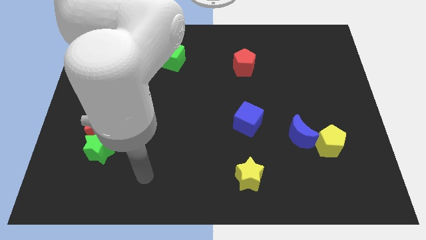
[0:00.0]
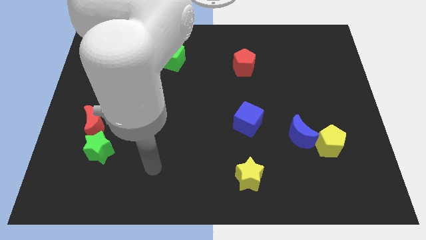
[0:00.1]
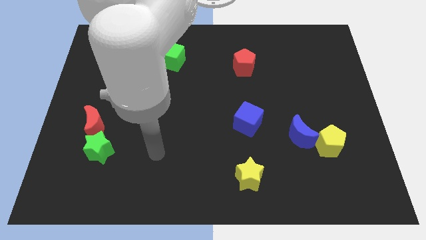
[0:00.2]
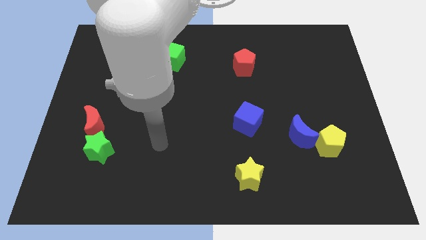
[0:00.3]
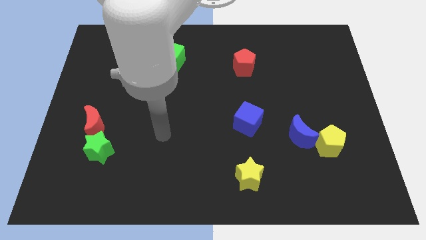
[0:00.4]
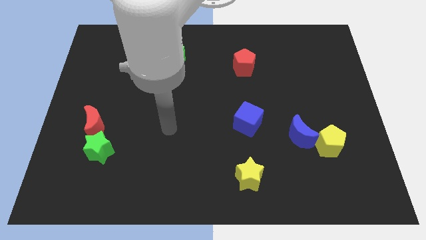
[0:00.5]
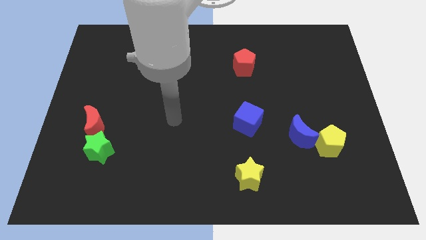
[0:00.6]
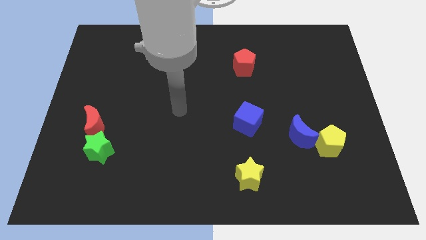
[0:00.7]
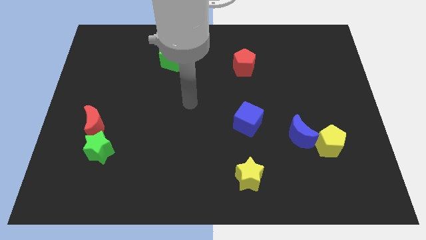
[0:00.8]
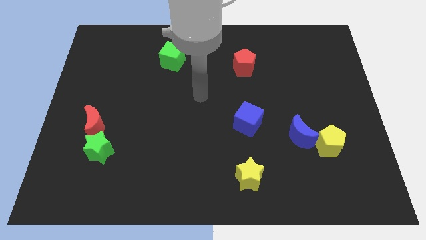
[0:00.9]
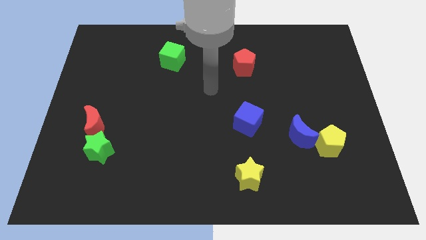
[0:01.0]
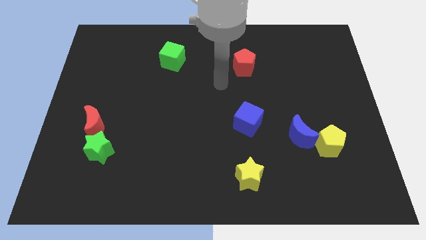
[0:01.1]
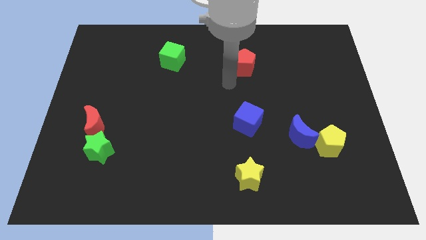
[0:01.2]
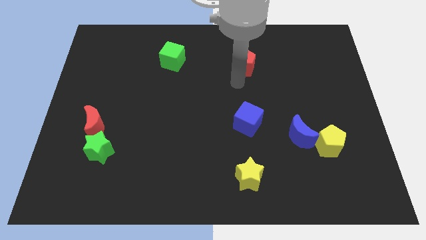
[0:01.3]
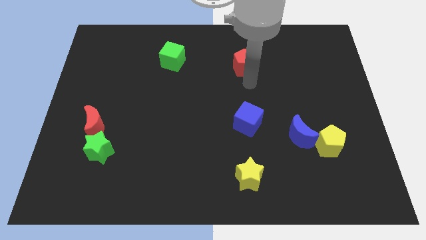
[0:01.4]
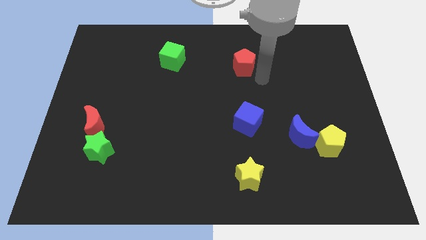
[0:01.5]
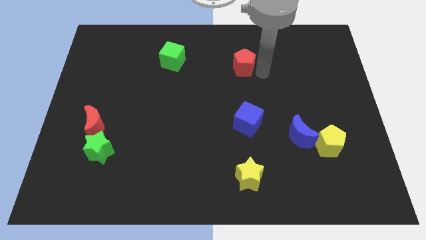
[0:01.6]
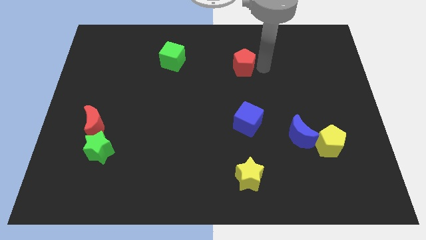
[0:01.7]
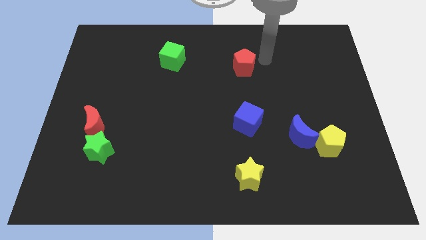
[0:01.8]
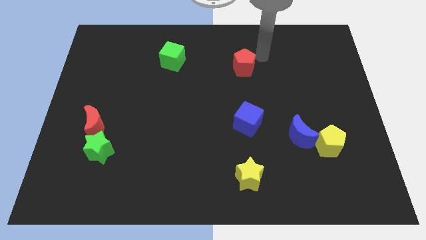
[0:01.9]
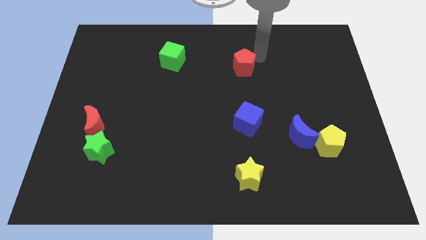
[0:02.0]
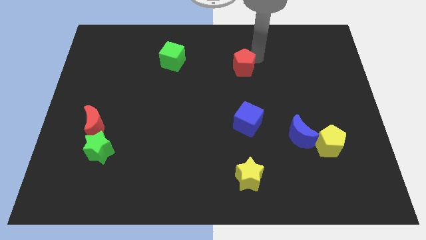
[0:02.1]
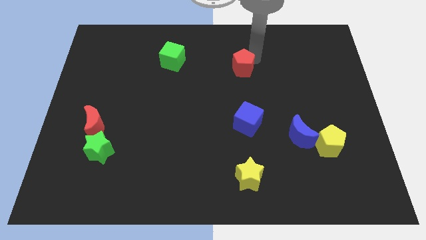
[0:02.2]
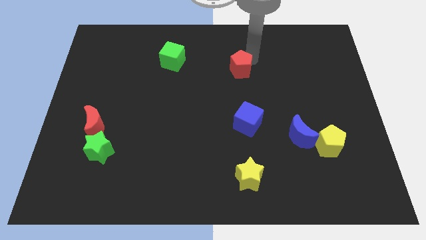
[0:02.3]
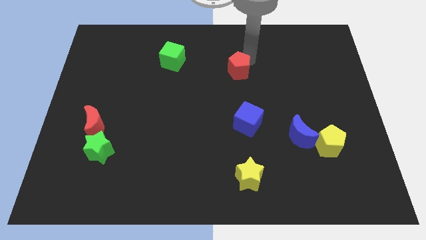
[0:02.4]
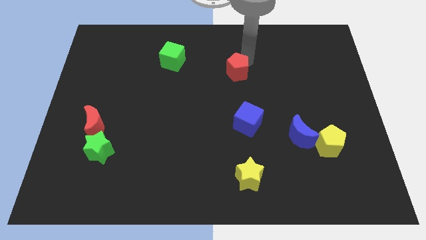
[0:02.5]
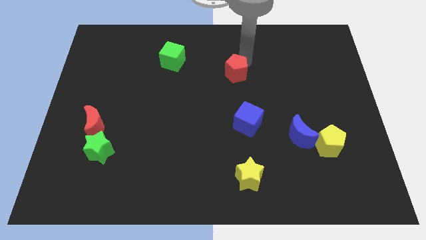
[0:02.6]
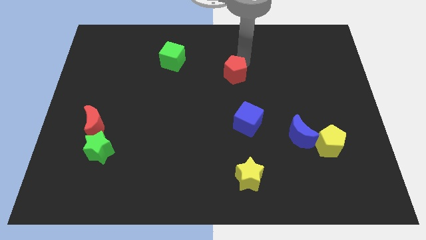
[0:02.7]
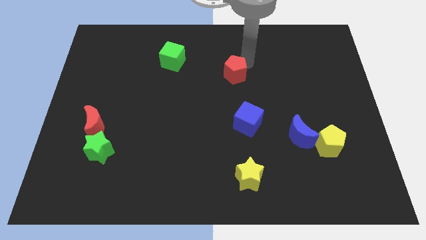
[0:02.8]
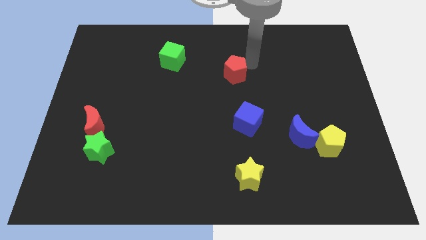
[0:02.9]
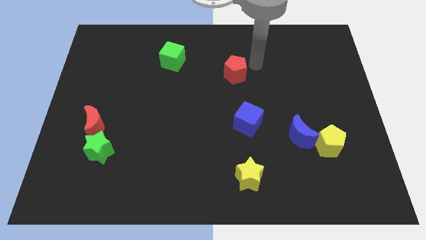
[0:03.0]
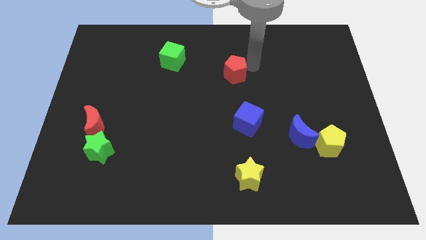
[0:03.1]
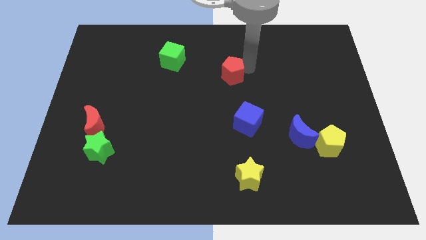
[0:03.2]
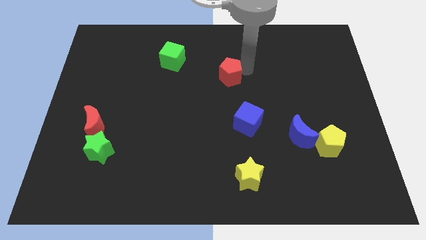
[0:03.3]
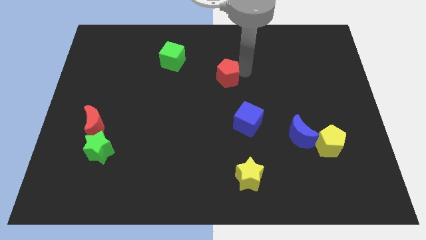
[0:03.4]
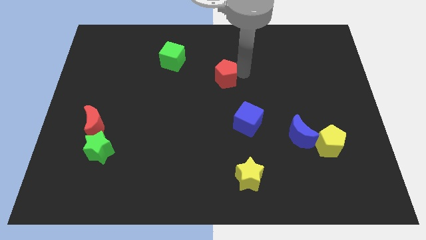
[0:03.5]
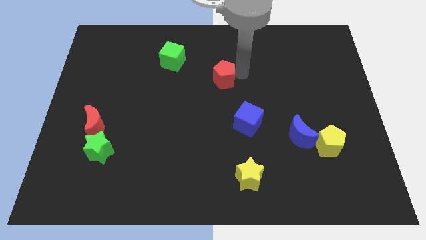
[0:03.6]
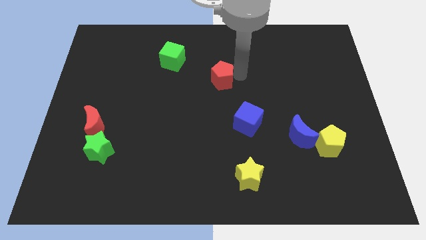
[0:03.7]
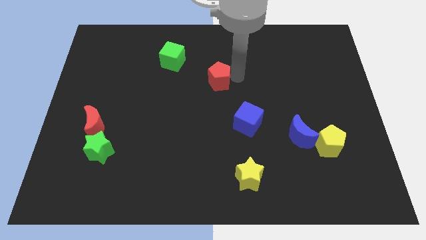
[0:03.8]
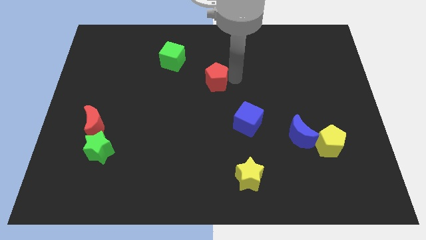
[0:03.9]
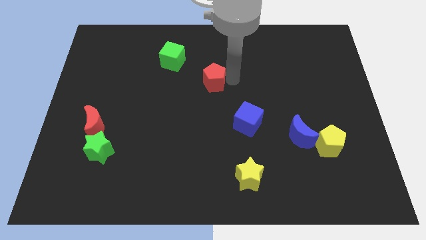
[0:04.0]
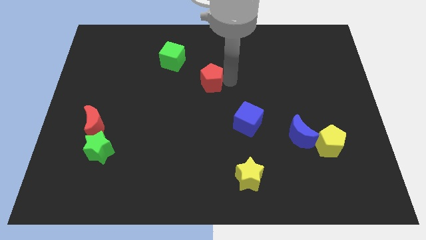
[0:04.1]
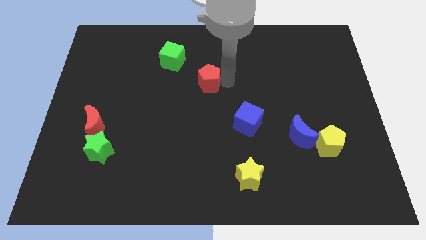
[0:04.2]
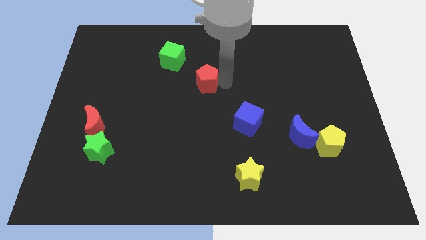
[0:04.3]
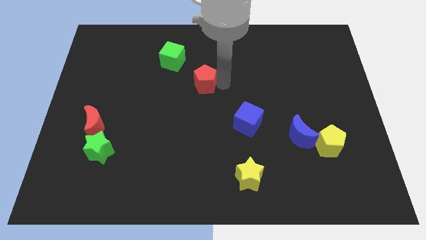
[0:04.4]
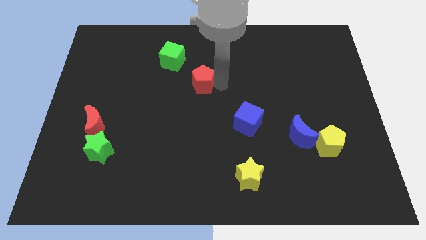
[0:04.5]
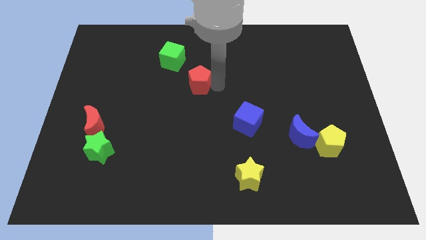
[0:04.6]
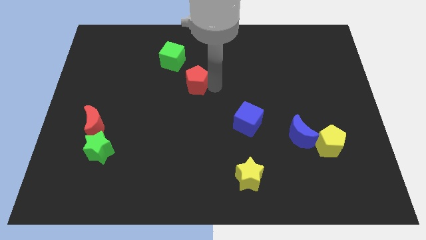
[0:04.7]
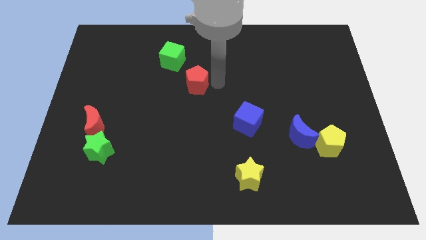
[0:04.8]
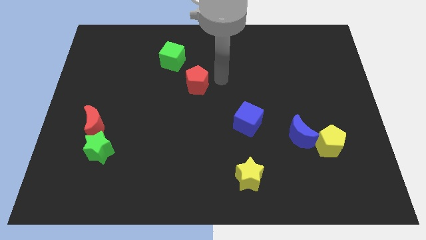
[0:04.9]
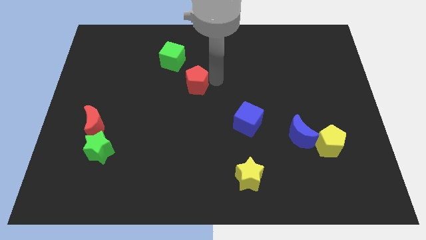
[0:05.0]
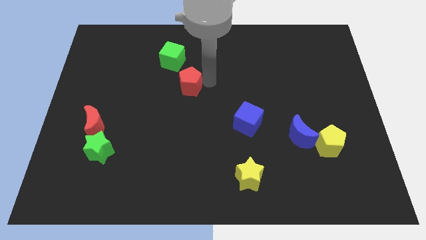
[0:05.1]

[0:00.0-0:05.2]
move the red pentagon to the bottom of the green cube

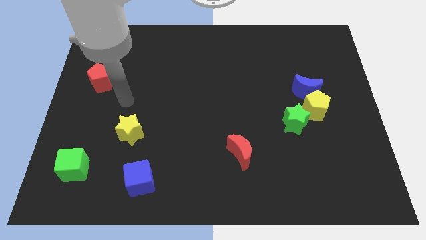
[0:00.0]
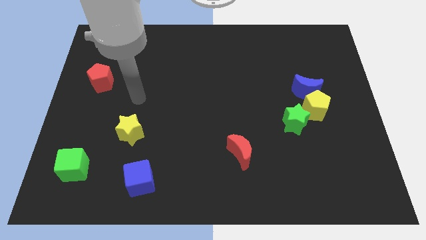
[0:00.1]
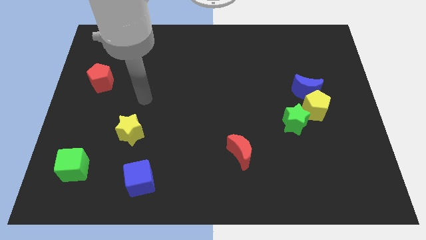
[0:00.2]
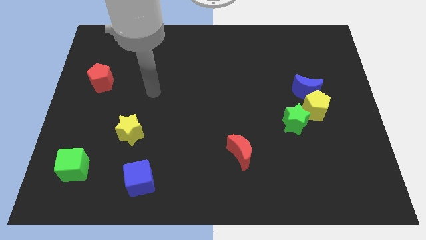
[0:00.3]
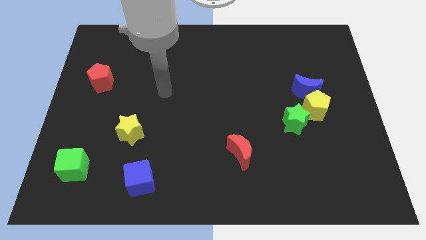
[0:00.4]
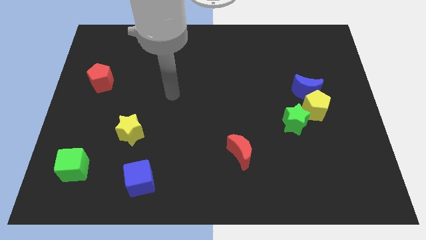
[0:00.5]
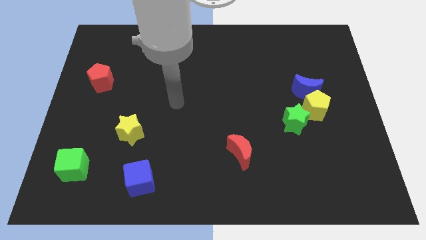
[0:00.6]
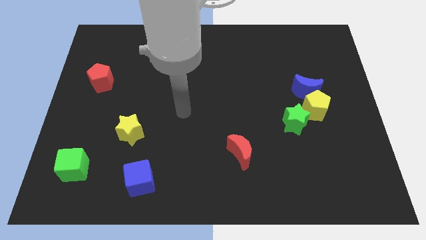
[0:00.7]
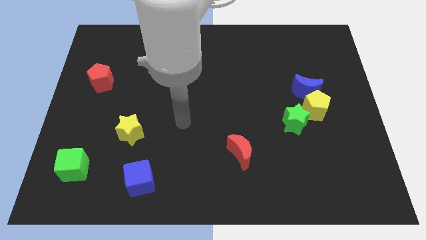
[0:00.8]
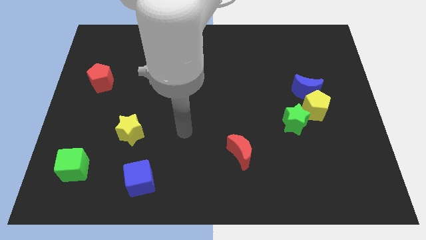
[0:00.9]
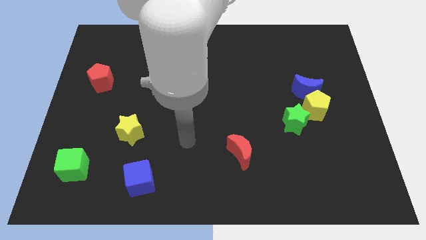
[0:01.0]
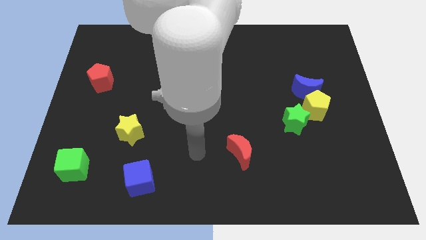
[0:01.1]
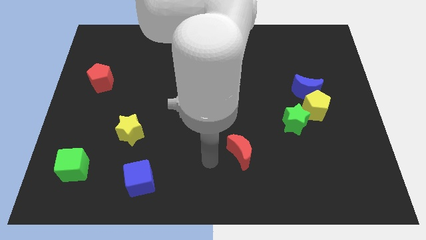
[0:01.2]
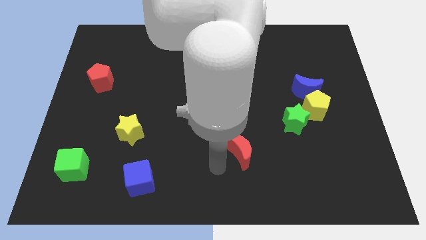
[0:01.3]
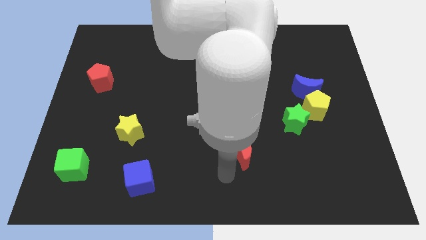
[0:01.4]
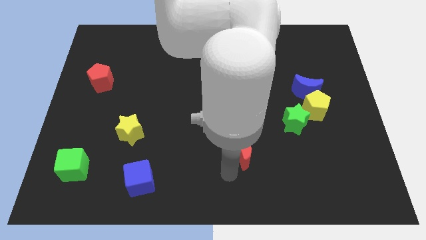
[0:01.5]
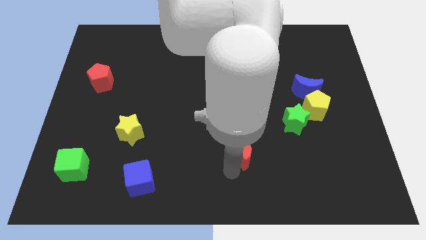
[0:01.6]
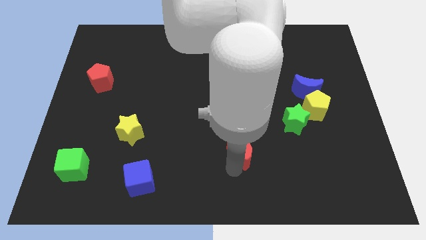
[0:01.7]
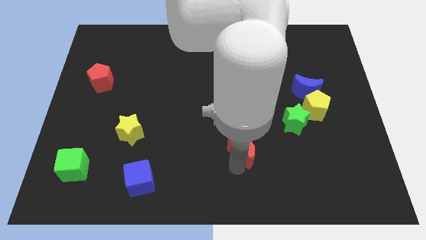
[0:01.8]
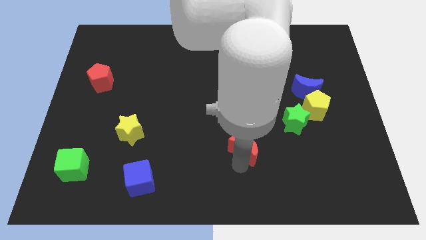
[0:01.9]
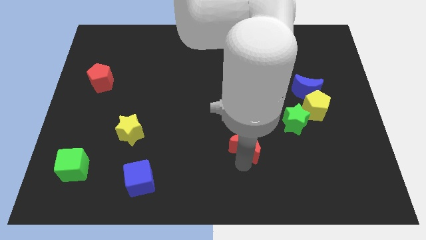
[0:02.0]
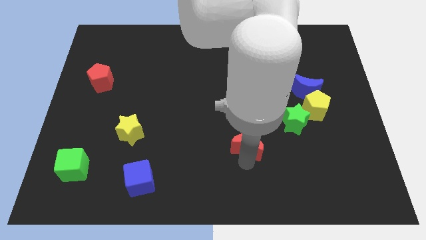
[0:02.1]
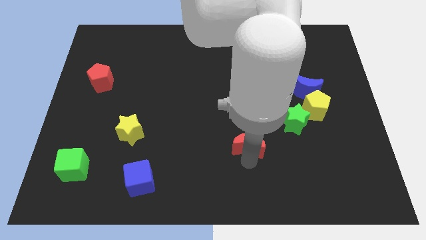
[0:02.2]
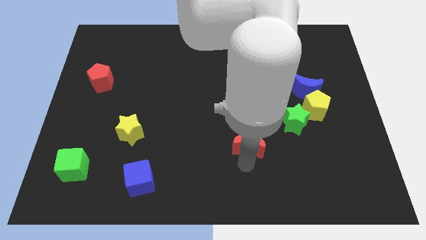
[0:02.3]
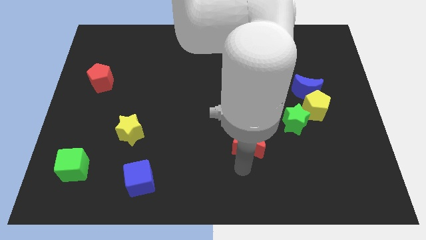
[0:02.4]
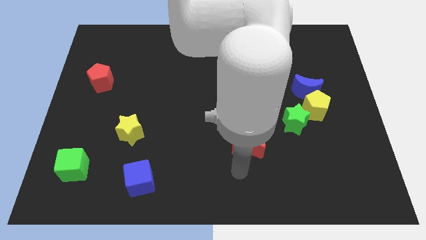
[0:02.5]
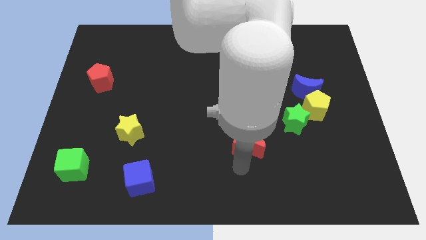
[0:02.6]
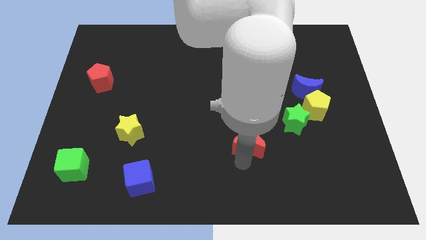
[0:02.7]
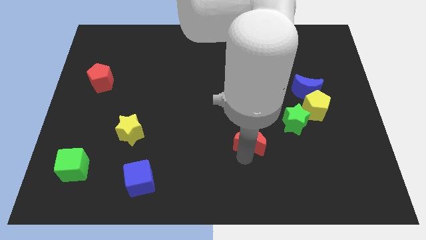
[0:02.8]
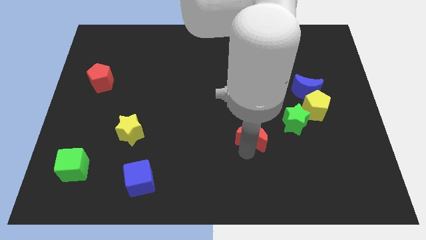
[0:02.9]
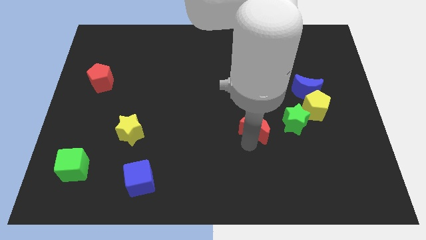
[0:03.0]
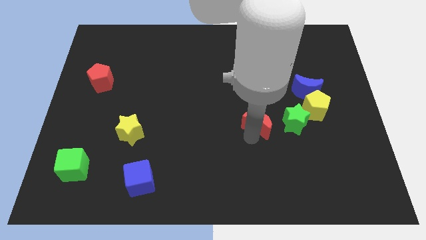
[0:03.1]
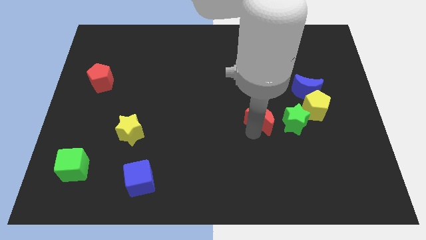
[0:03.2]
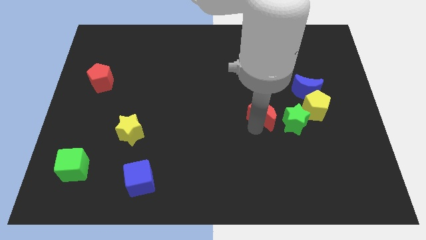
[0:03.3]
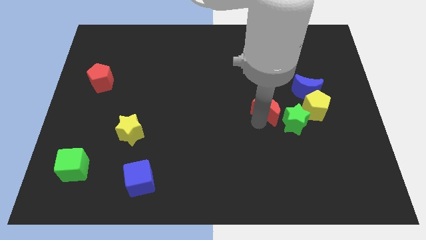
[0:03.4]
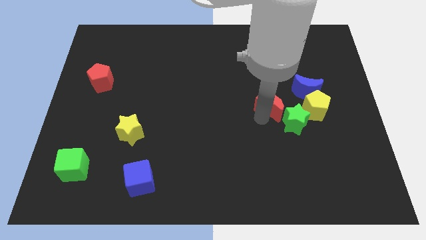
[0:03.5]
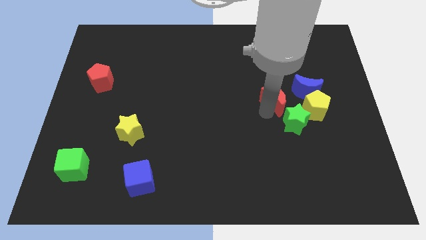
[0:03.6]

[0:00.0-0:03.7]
put the red moon above the green star
